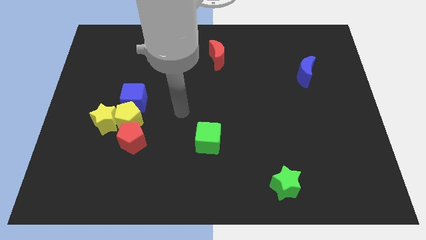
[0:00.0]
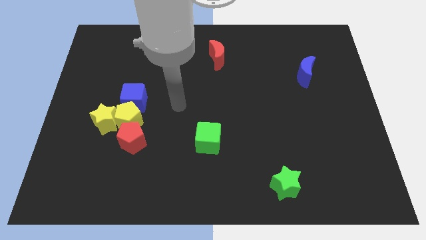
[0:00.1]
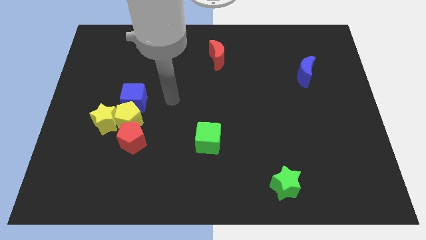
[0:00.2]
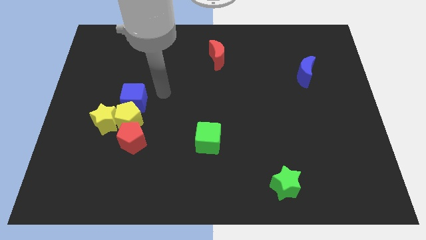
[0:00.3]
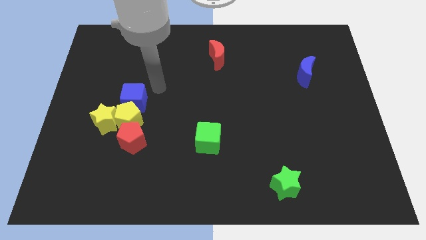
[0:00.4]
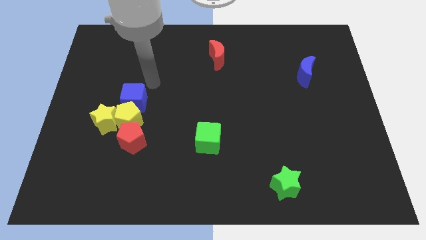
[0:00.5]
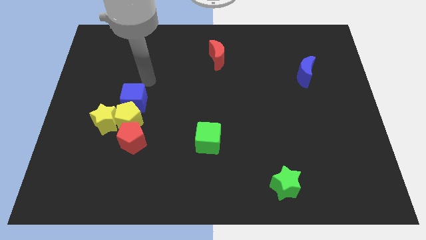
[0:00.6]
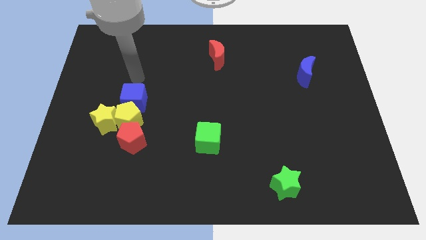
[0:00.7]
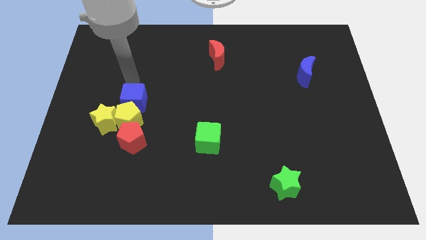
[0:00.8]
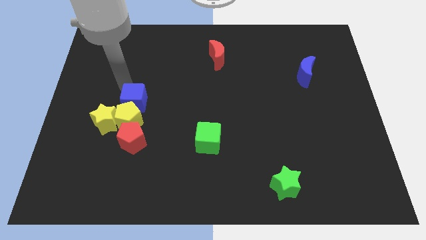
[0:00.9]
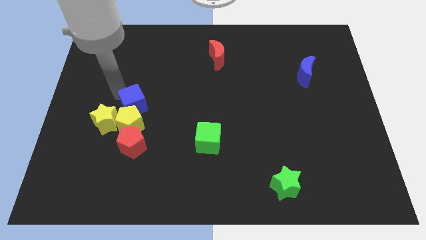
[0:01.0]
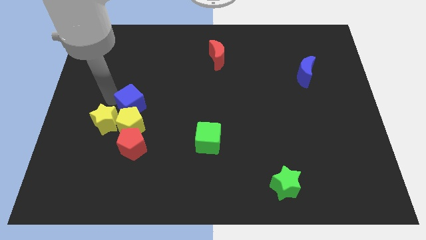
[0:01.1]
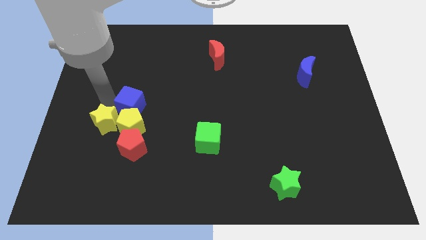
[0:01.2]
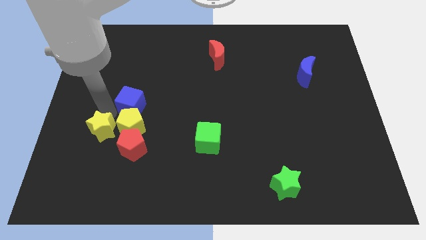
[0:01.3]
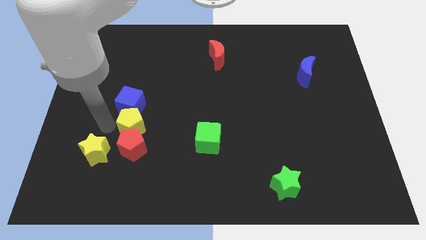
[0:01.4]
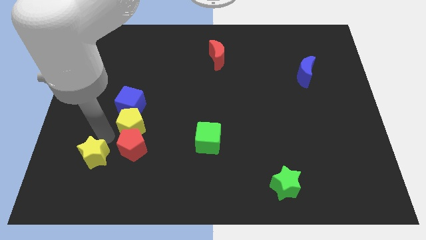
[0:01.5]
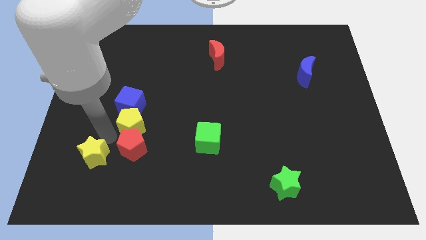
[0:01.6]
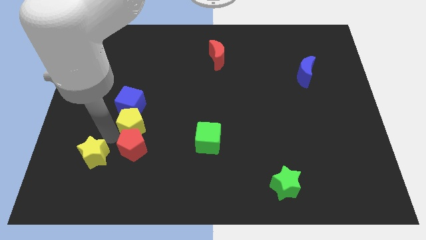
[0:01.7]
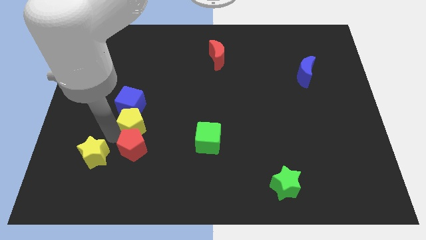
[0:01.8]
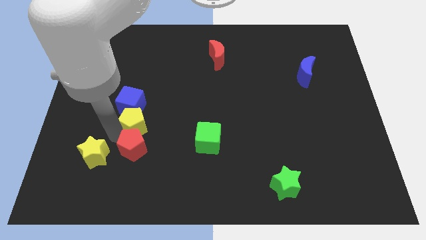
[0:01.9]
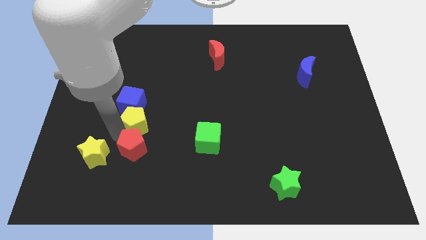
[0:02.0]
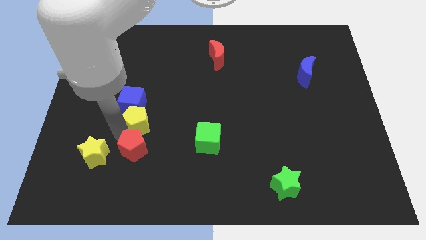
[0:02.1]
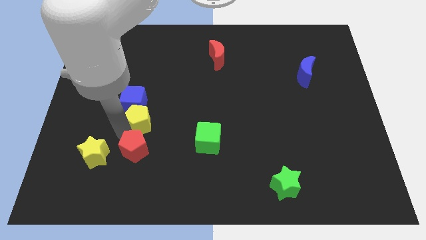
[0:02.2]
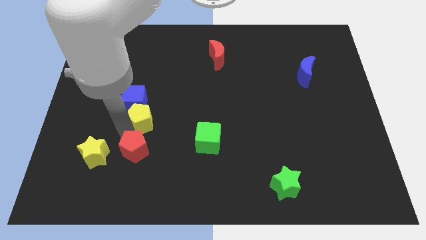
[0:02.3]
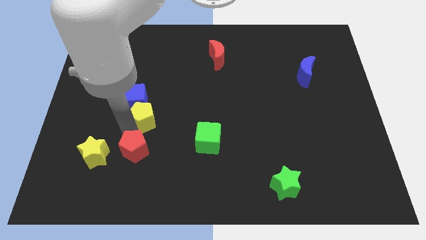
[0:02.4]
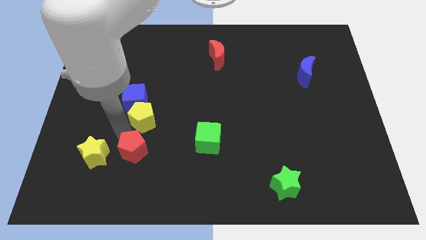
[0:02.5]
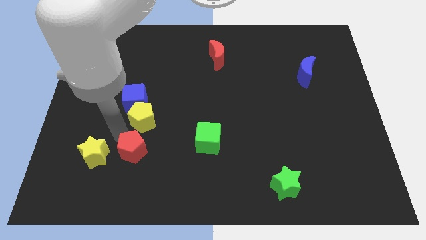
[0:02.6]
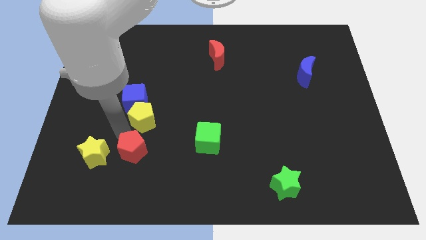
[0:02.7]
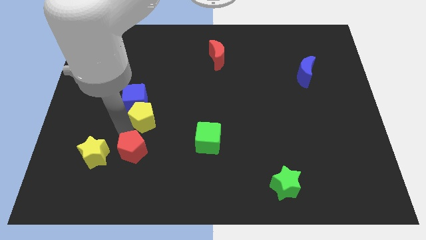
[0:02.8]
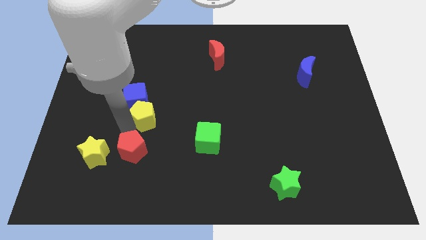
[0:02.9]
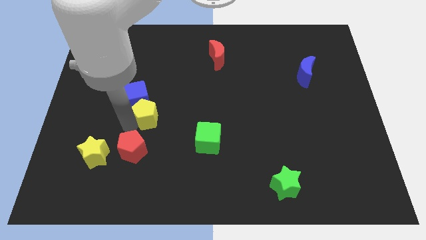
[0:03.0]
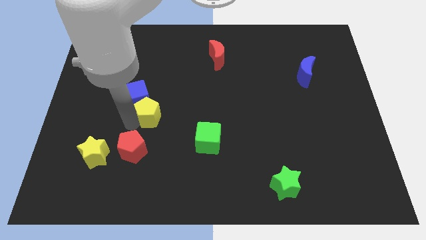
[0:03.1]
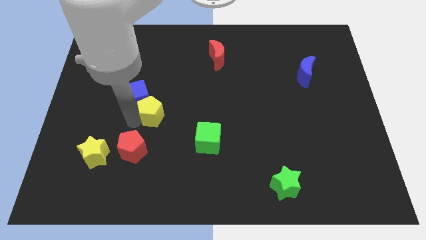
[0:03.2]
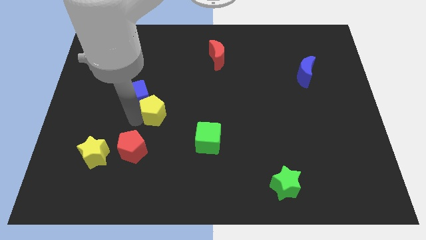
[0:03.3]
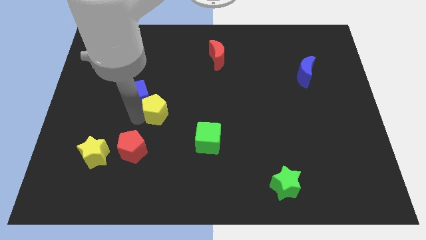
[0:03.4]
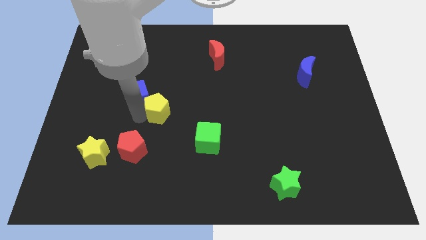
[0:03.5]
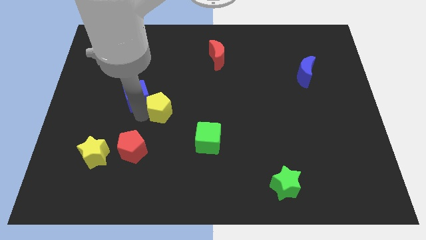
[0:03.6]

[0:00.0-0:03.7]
move the yellow pentagon away from the yellow star, blue cube, and red pentagon

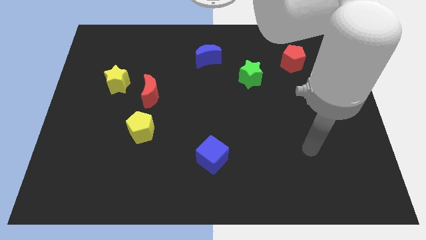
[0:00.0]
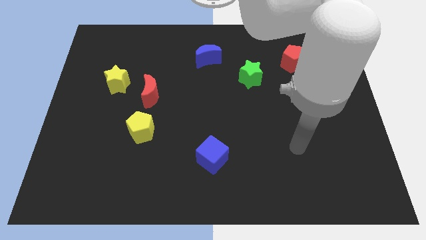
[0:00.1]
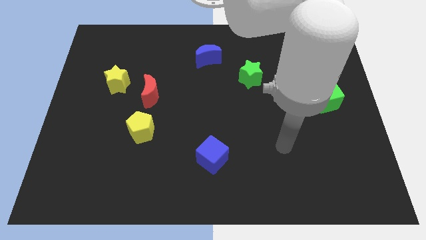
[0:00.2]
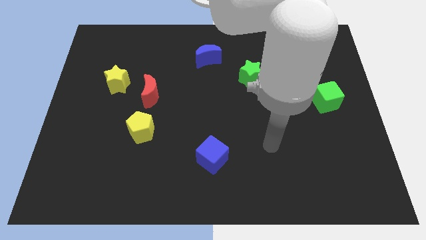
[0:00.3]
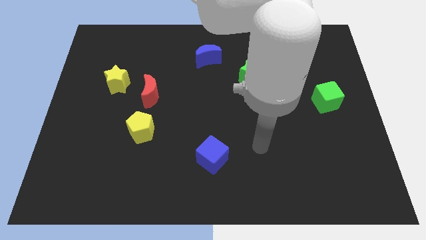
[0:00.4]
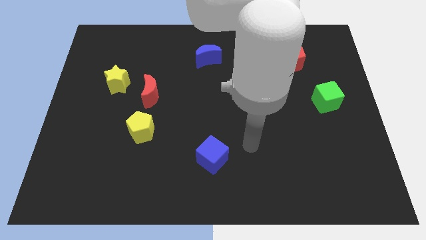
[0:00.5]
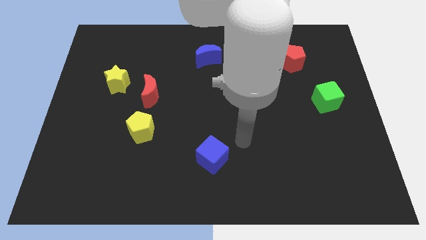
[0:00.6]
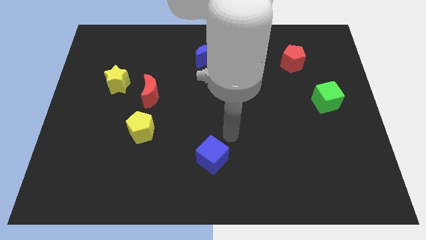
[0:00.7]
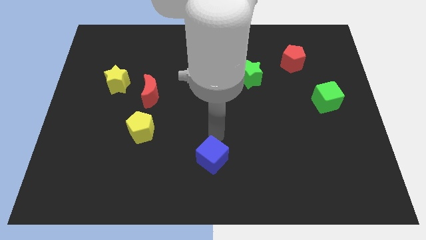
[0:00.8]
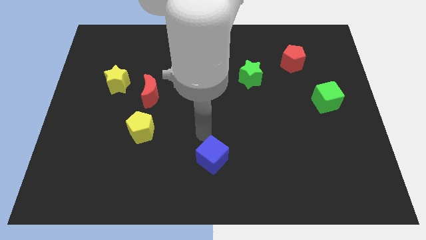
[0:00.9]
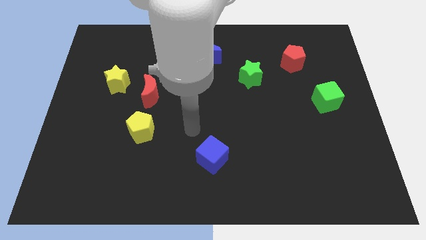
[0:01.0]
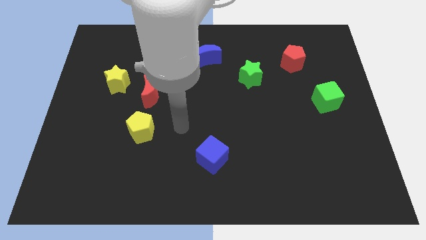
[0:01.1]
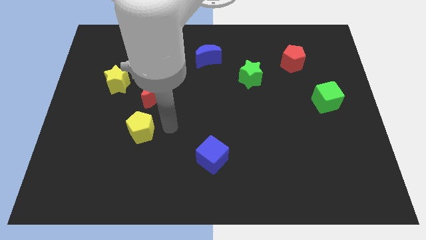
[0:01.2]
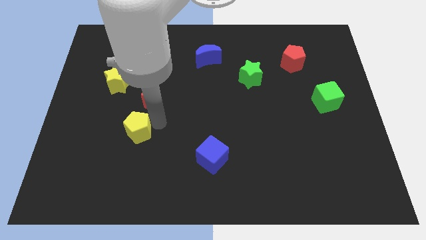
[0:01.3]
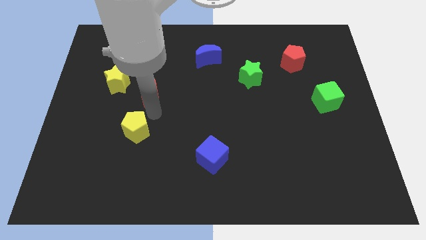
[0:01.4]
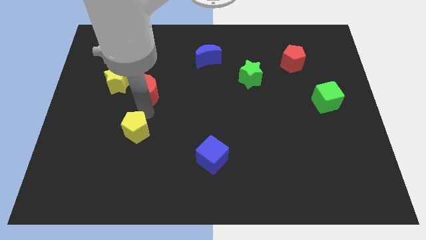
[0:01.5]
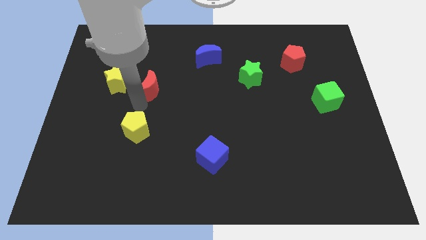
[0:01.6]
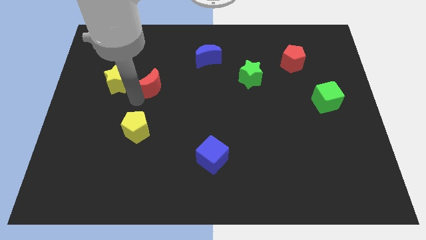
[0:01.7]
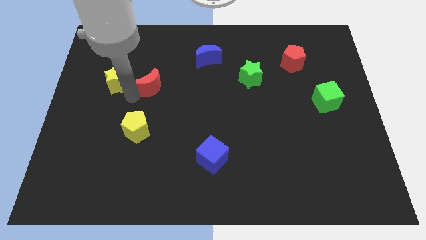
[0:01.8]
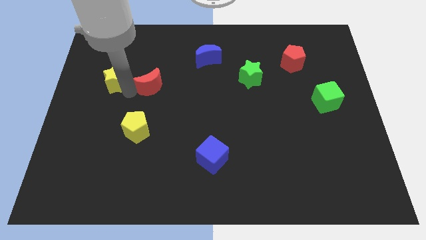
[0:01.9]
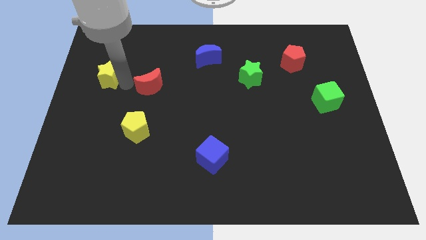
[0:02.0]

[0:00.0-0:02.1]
separate the red moon from the yellow star

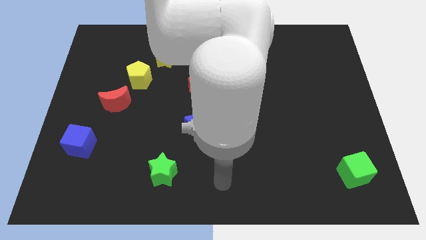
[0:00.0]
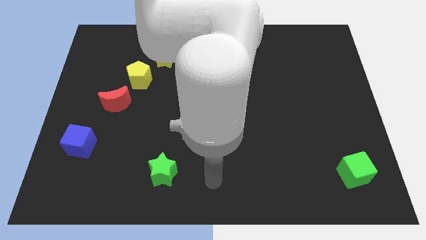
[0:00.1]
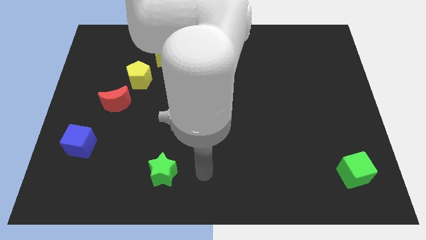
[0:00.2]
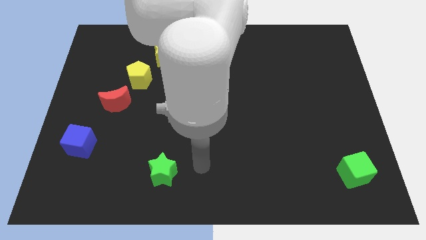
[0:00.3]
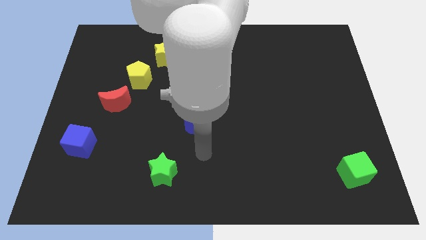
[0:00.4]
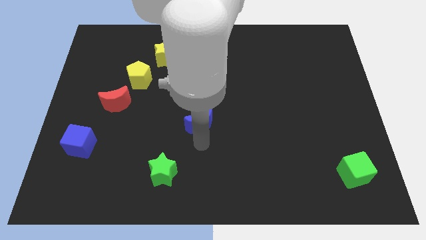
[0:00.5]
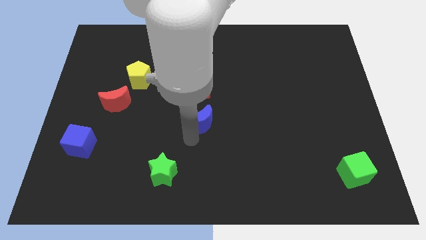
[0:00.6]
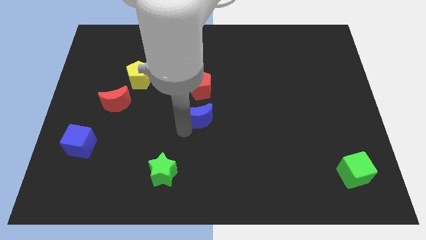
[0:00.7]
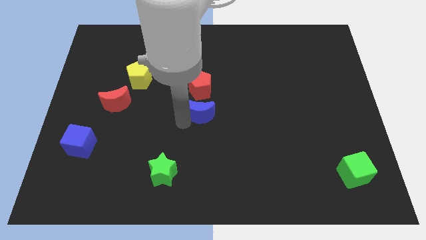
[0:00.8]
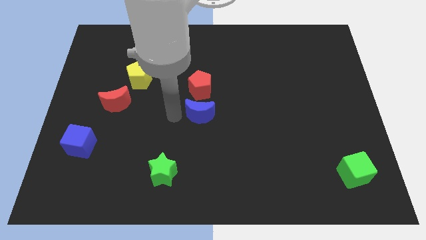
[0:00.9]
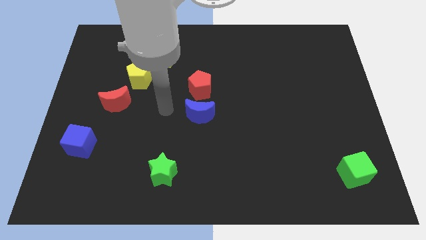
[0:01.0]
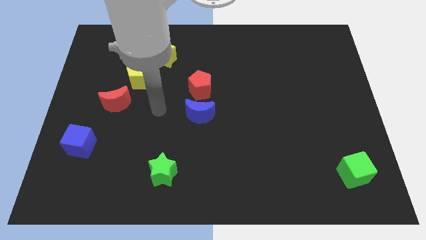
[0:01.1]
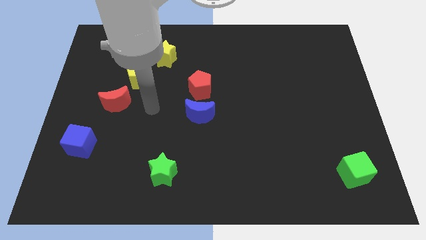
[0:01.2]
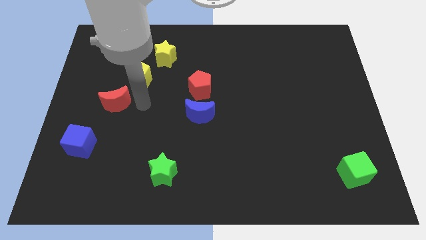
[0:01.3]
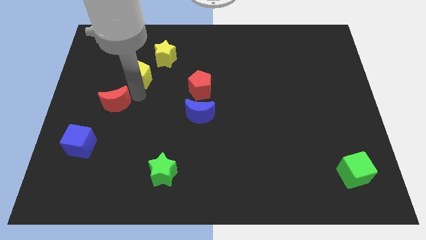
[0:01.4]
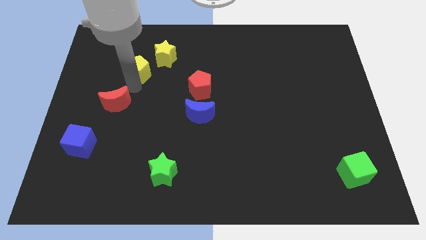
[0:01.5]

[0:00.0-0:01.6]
pull the red moon apart from the yellow pentagon

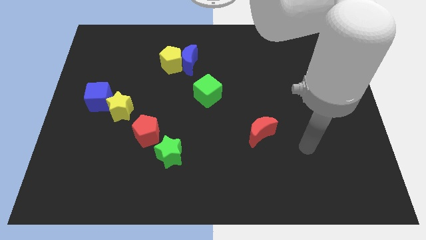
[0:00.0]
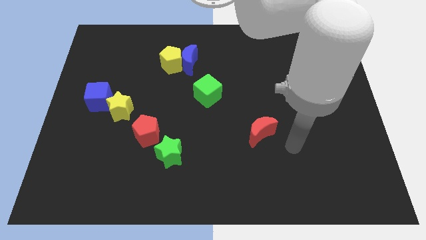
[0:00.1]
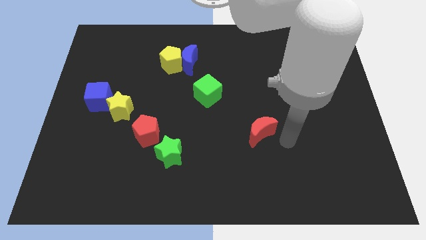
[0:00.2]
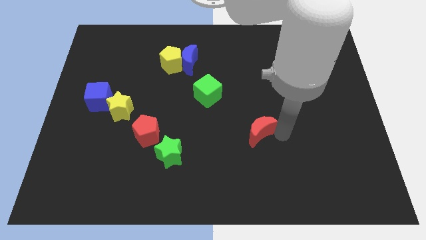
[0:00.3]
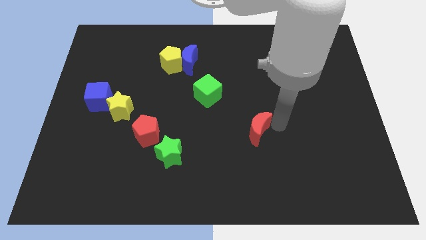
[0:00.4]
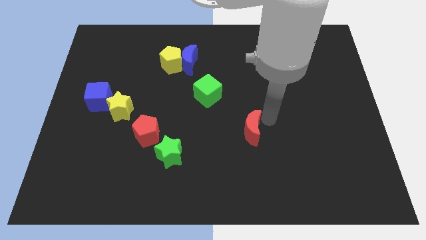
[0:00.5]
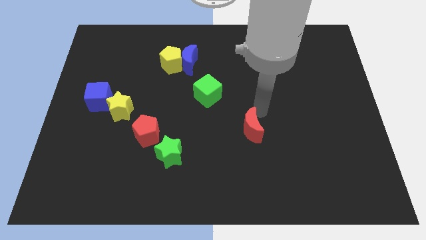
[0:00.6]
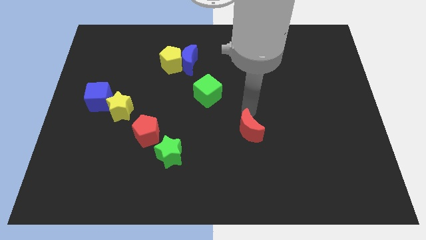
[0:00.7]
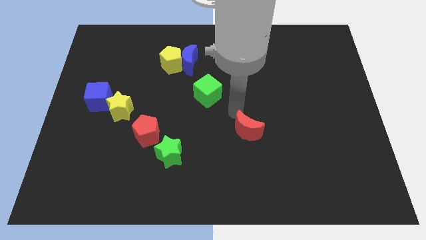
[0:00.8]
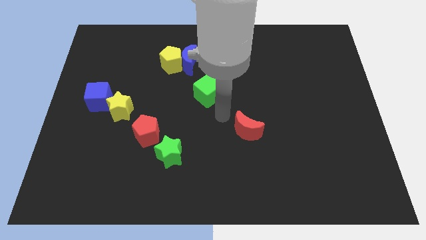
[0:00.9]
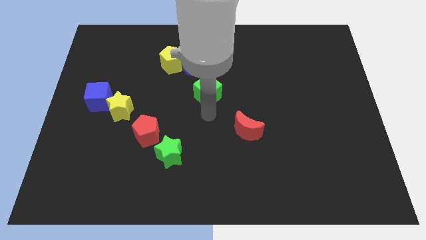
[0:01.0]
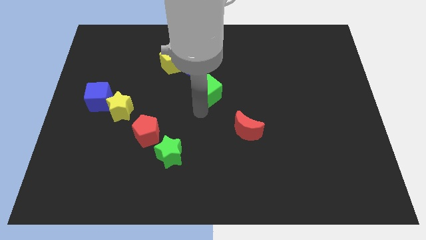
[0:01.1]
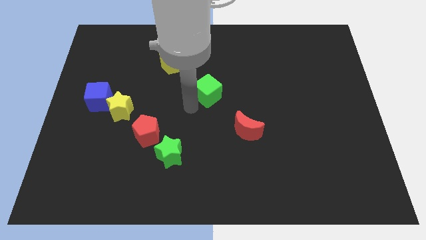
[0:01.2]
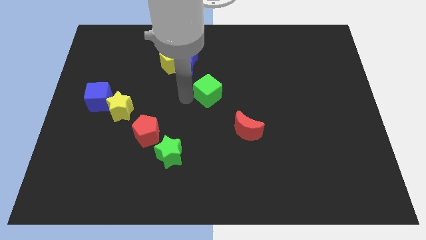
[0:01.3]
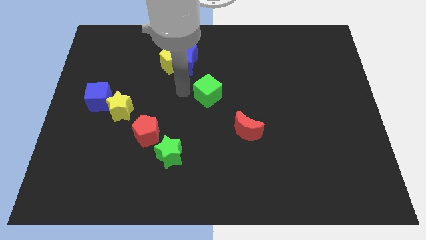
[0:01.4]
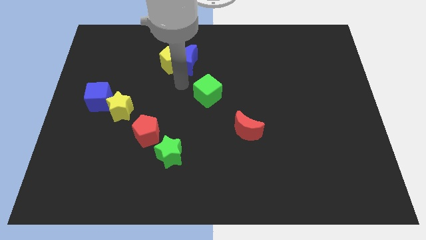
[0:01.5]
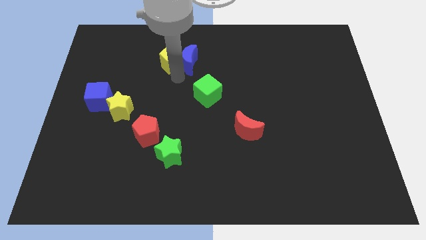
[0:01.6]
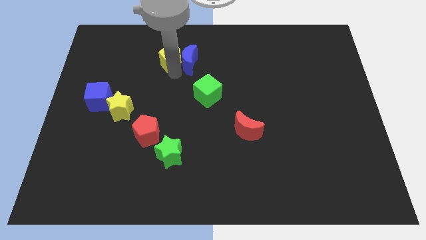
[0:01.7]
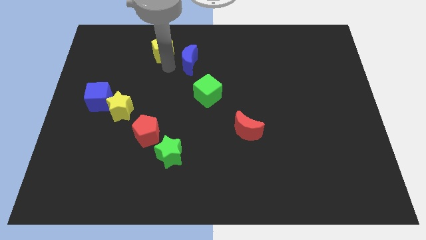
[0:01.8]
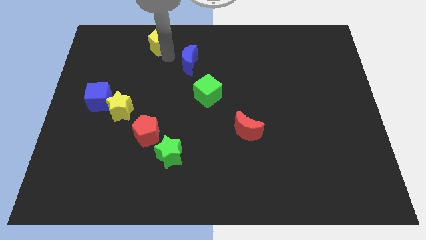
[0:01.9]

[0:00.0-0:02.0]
separate the blue moon from the yellow pentagon
